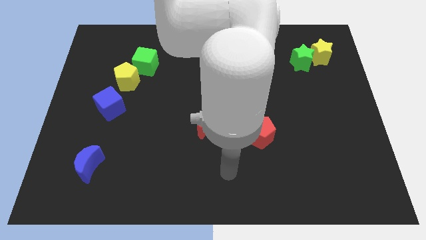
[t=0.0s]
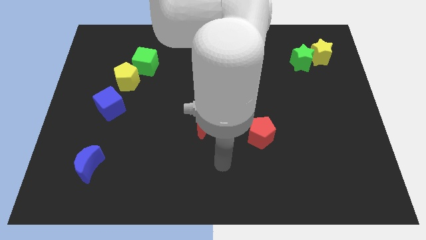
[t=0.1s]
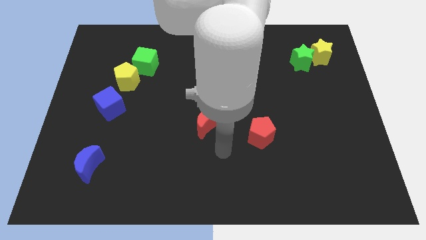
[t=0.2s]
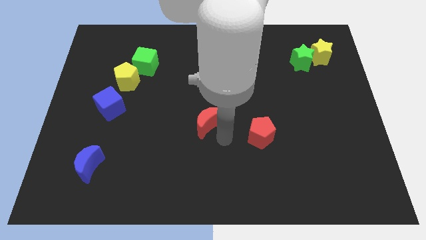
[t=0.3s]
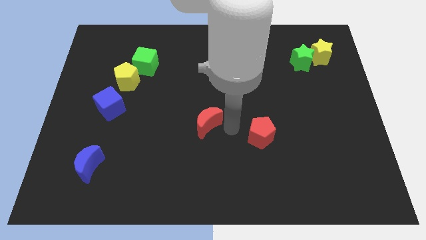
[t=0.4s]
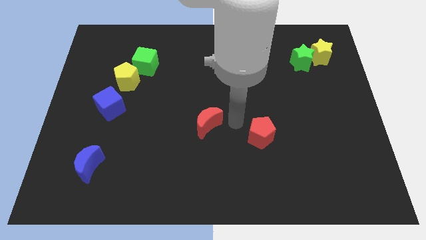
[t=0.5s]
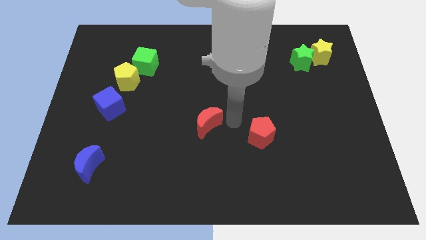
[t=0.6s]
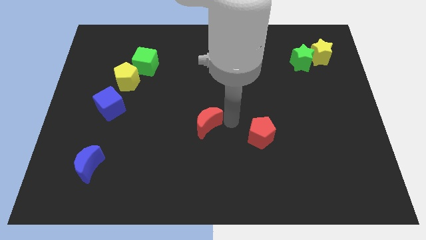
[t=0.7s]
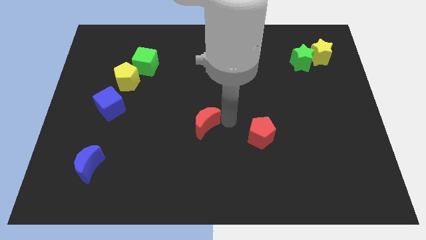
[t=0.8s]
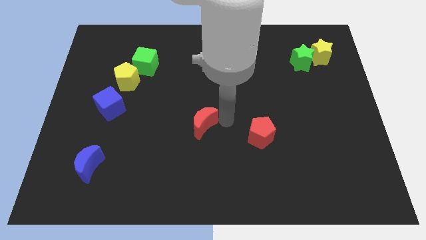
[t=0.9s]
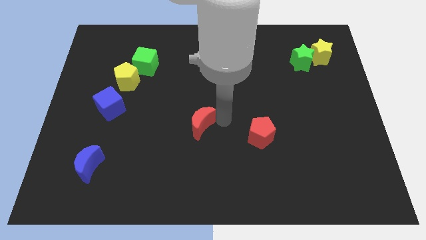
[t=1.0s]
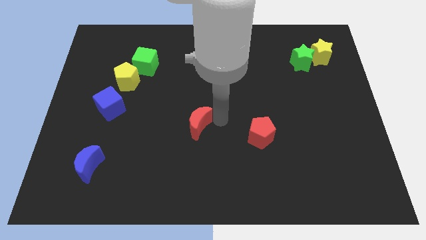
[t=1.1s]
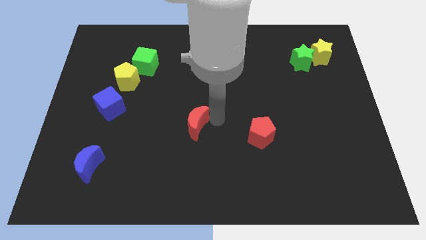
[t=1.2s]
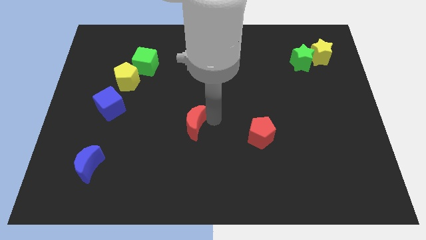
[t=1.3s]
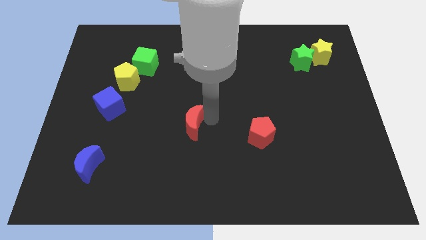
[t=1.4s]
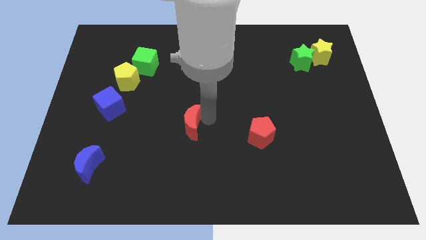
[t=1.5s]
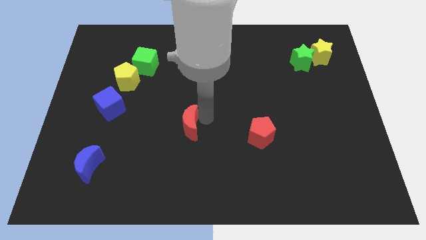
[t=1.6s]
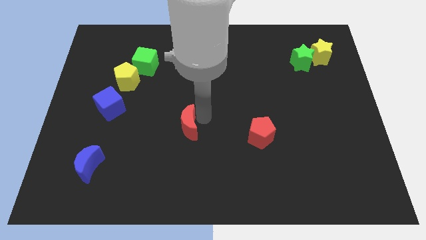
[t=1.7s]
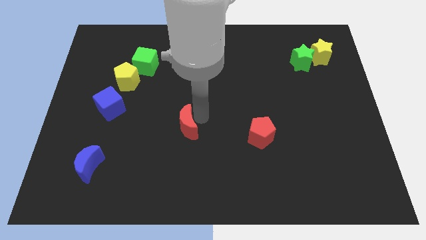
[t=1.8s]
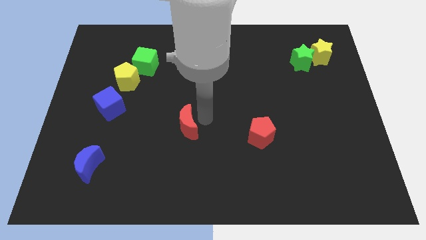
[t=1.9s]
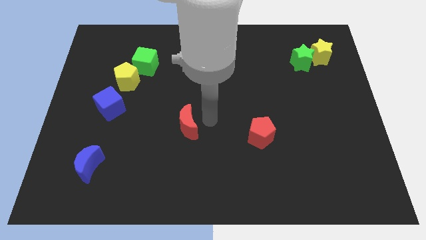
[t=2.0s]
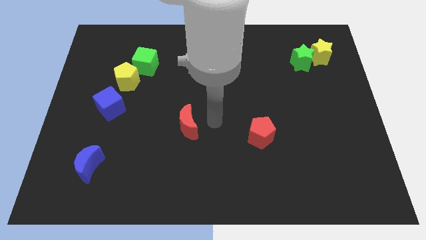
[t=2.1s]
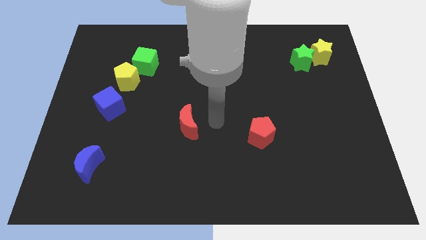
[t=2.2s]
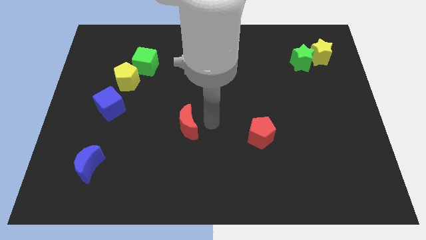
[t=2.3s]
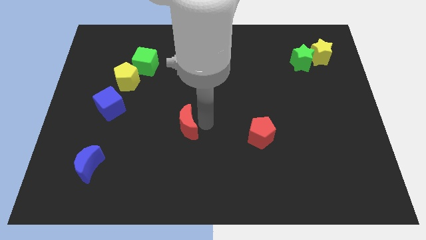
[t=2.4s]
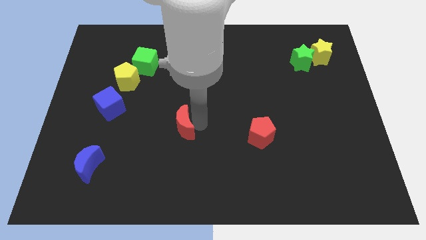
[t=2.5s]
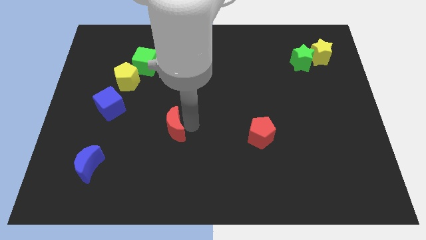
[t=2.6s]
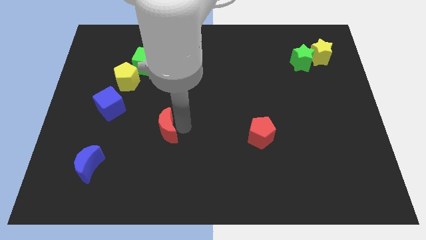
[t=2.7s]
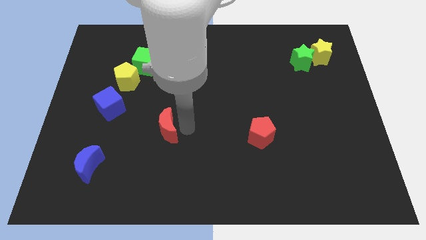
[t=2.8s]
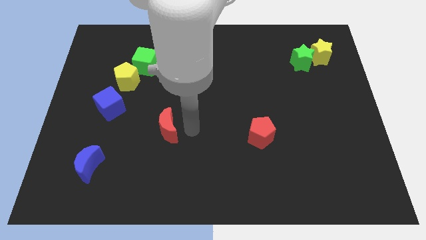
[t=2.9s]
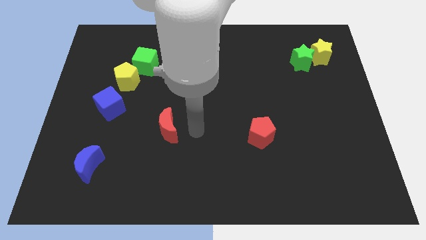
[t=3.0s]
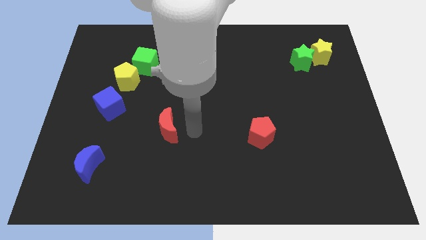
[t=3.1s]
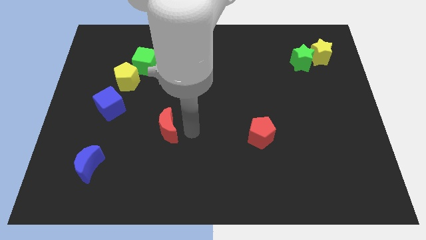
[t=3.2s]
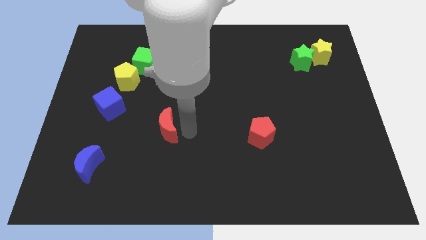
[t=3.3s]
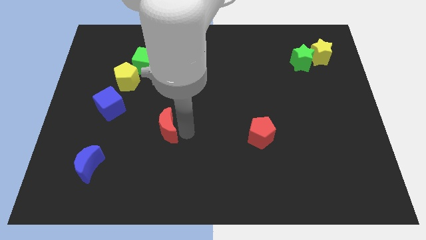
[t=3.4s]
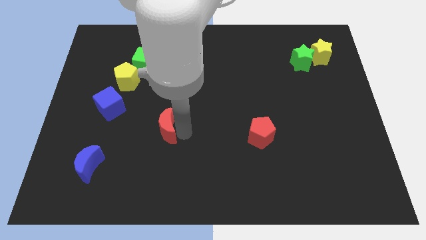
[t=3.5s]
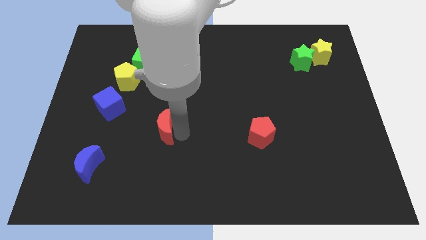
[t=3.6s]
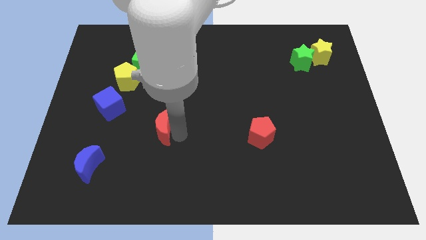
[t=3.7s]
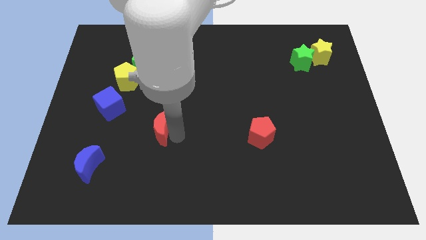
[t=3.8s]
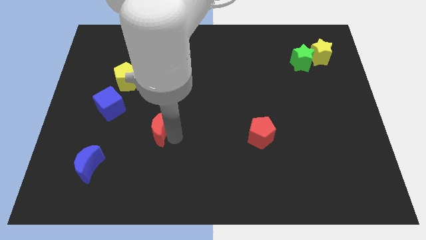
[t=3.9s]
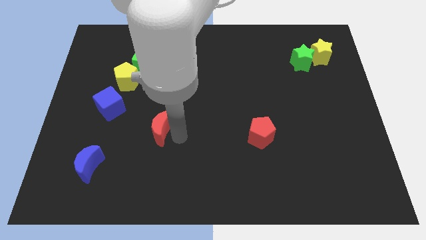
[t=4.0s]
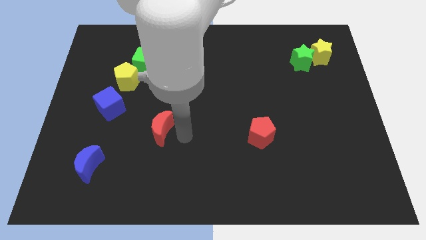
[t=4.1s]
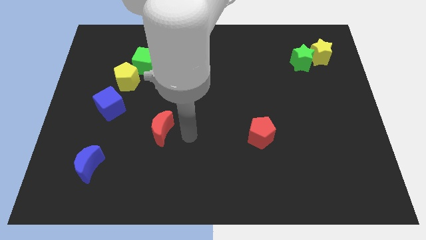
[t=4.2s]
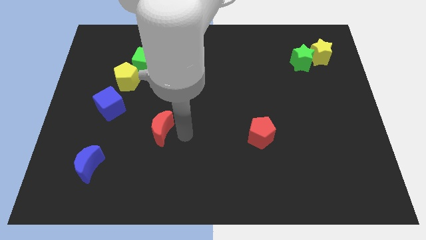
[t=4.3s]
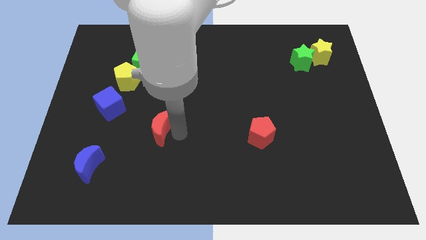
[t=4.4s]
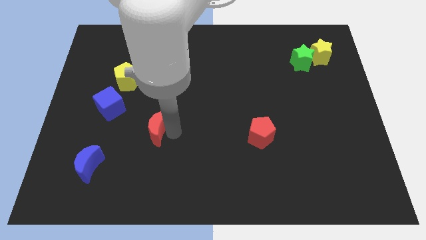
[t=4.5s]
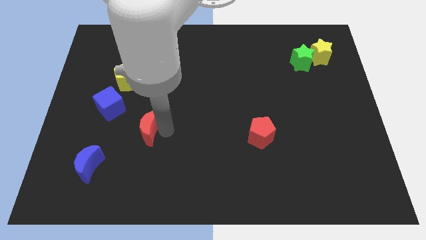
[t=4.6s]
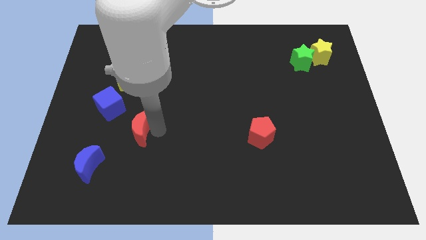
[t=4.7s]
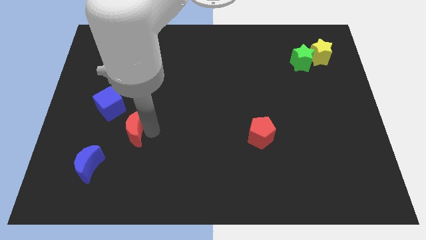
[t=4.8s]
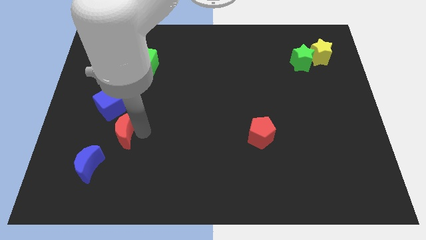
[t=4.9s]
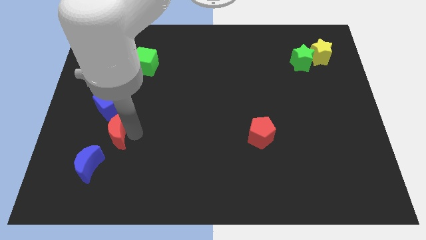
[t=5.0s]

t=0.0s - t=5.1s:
put the red moon to the top side of the blue moon

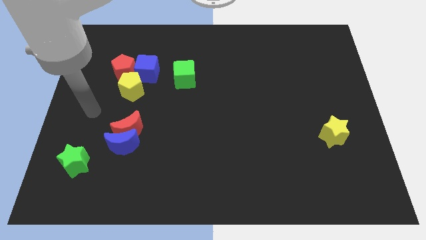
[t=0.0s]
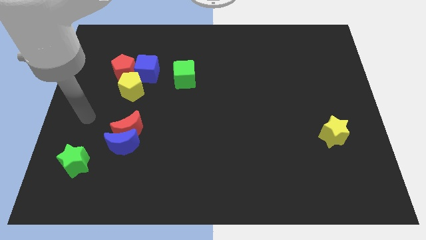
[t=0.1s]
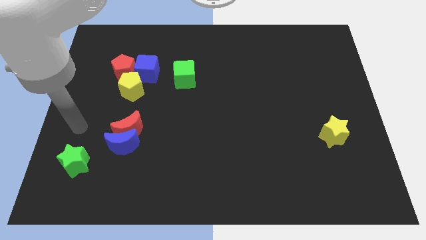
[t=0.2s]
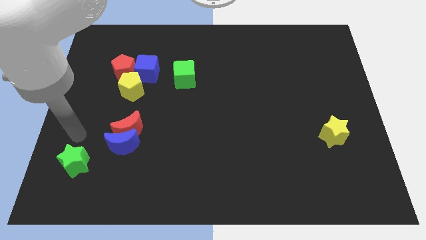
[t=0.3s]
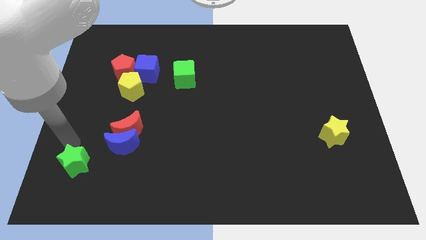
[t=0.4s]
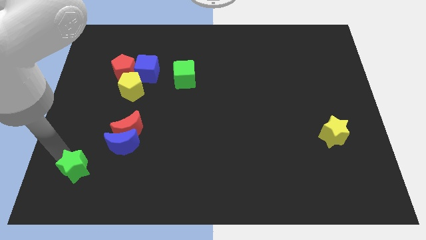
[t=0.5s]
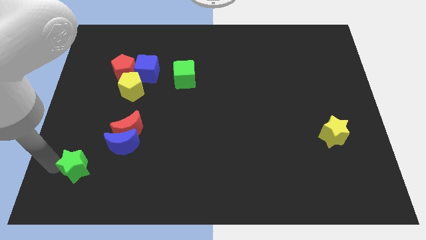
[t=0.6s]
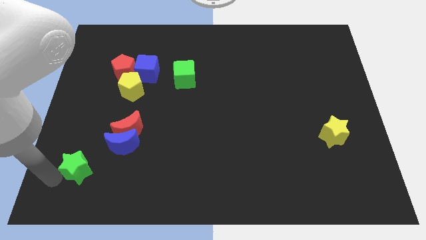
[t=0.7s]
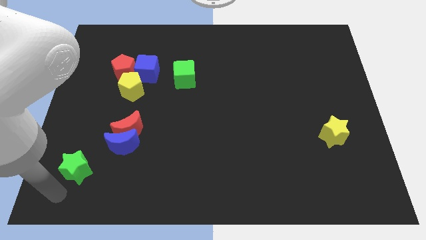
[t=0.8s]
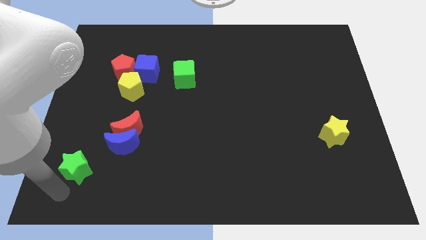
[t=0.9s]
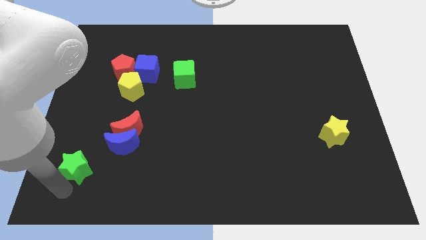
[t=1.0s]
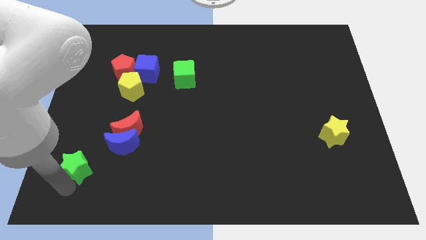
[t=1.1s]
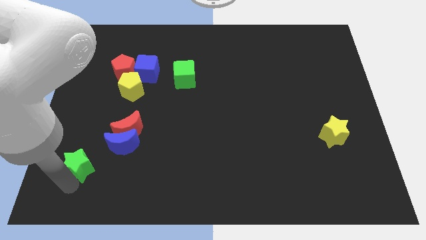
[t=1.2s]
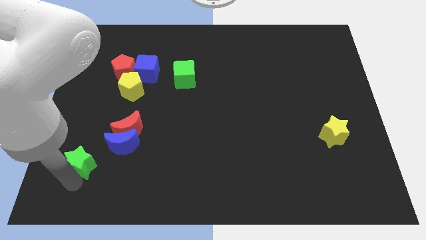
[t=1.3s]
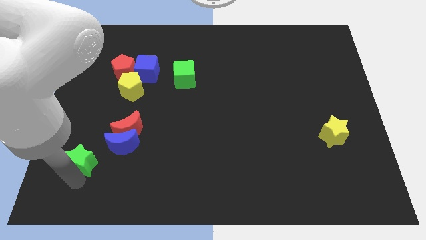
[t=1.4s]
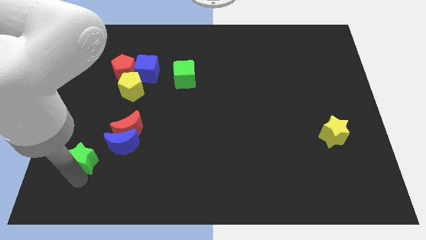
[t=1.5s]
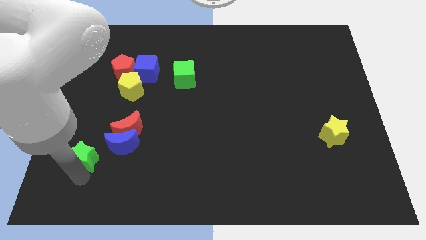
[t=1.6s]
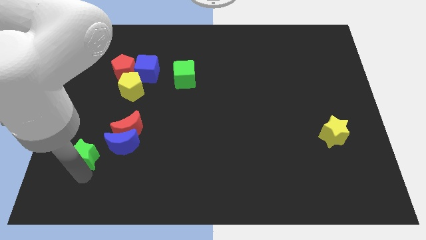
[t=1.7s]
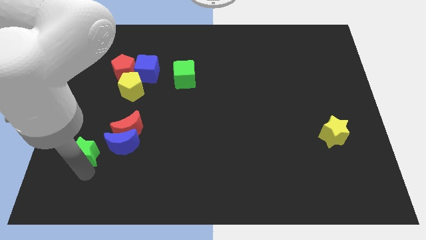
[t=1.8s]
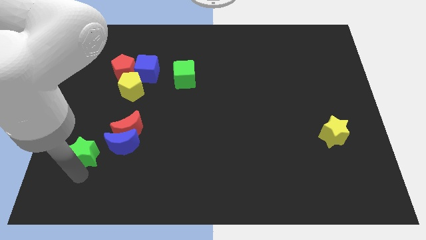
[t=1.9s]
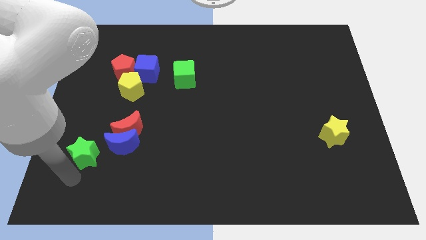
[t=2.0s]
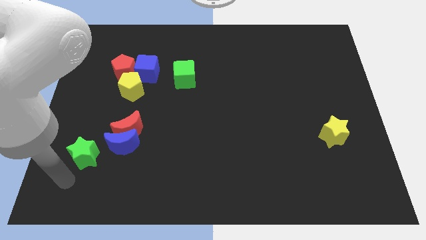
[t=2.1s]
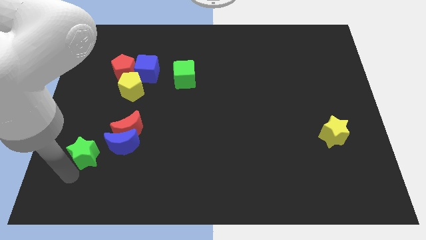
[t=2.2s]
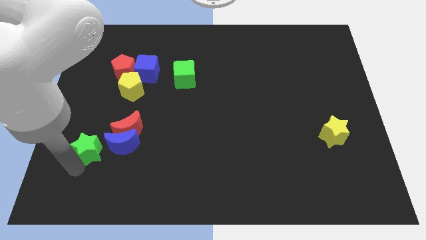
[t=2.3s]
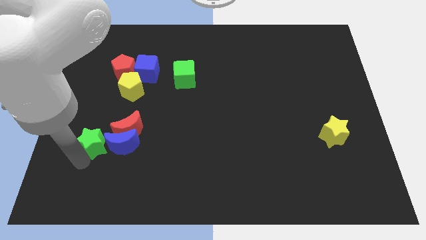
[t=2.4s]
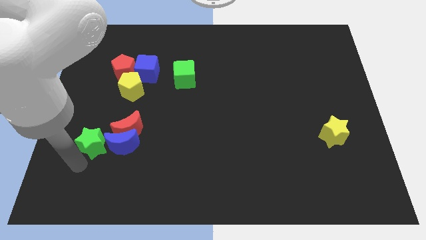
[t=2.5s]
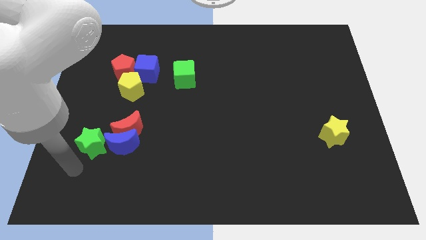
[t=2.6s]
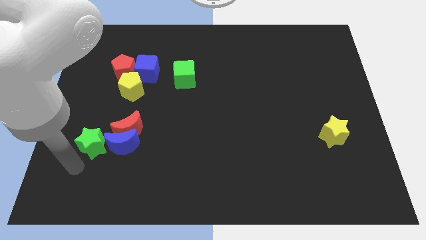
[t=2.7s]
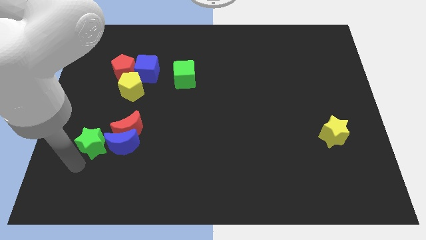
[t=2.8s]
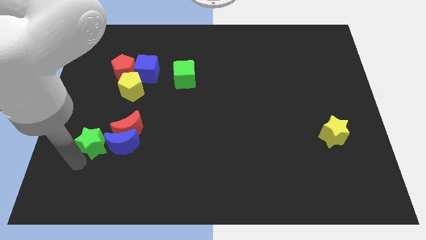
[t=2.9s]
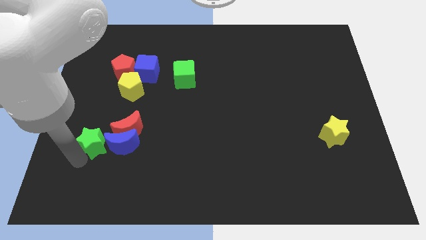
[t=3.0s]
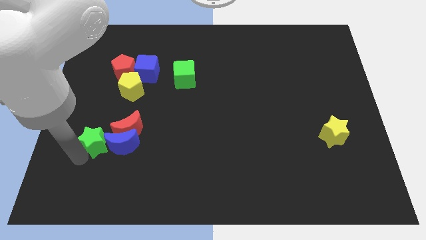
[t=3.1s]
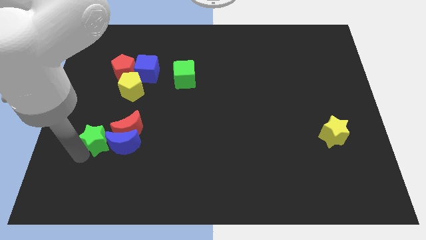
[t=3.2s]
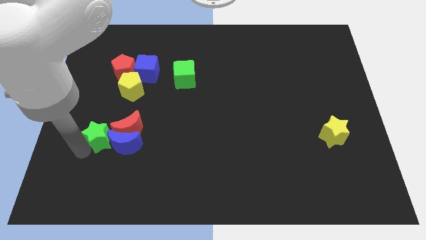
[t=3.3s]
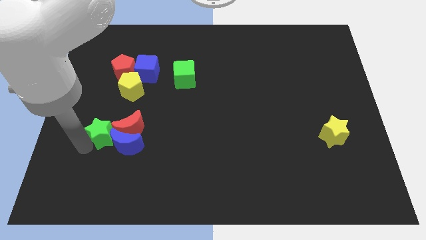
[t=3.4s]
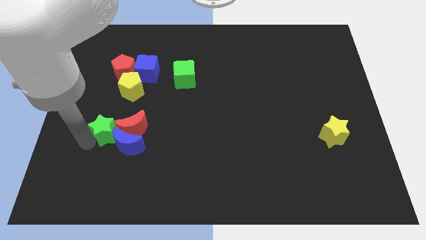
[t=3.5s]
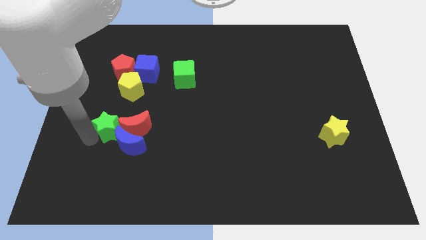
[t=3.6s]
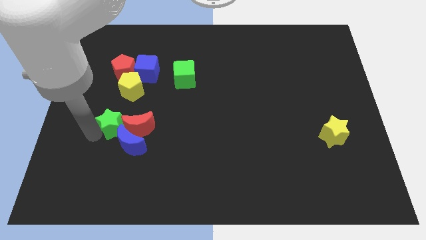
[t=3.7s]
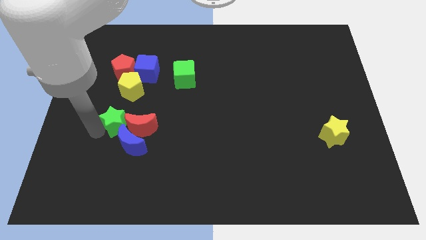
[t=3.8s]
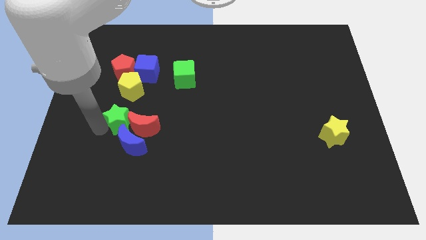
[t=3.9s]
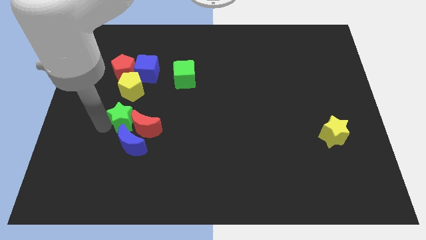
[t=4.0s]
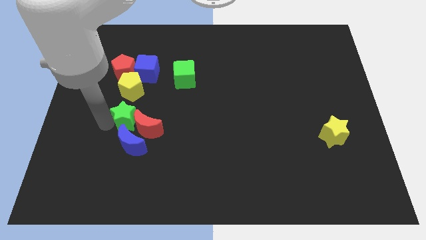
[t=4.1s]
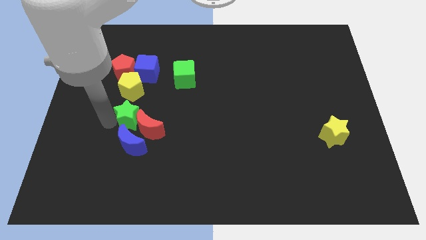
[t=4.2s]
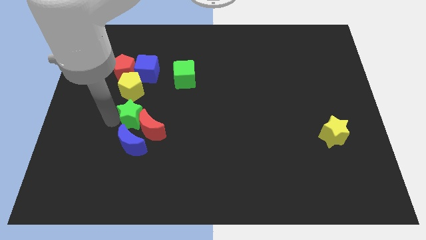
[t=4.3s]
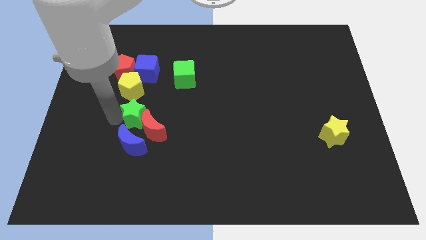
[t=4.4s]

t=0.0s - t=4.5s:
move the green star to the bottom right of the yellow pentagon
